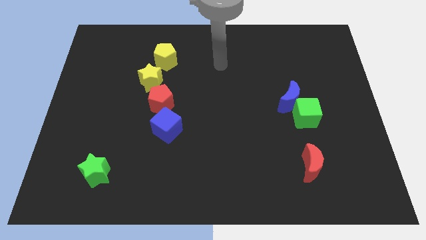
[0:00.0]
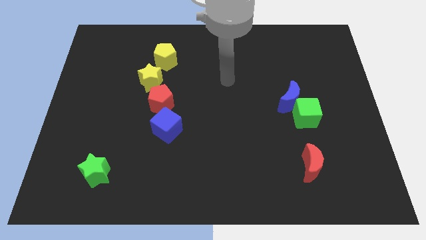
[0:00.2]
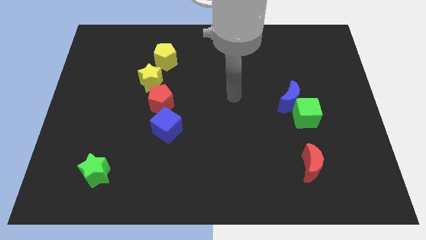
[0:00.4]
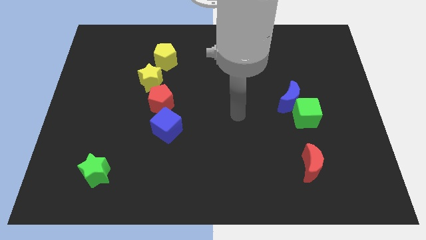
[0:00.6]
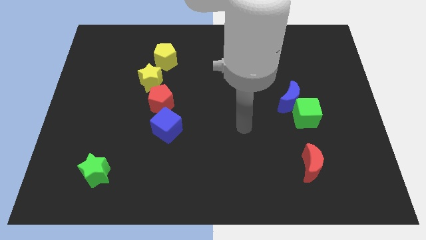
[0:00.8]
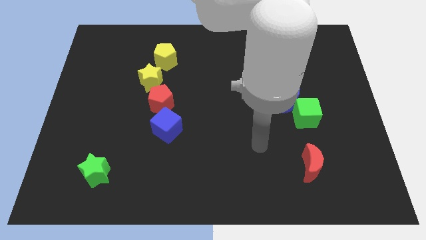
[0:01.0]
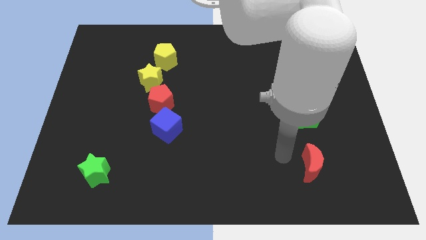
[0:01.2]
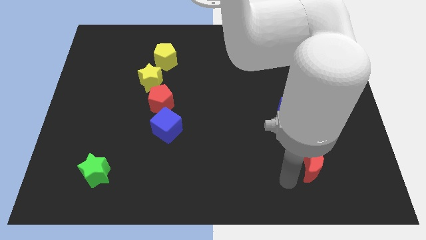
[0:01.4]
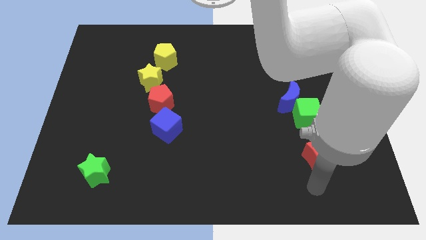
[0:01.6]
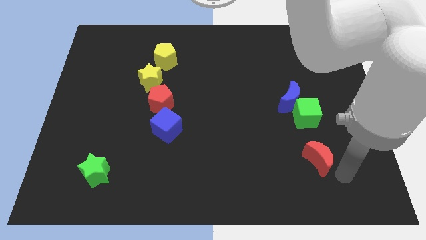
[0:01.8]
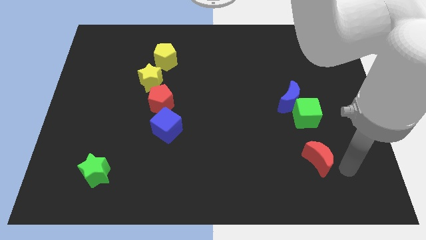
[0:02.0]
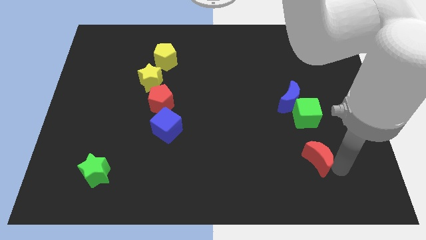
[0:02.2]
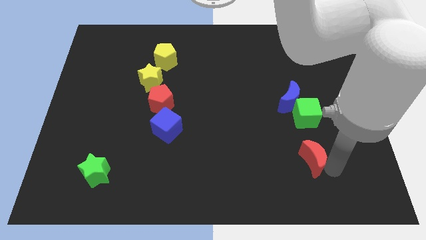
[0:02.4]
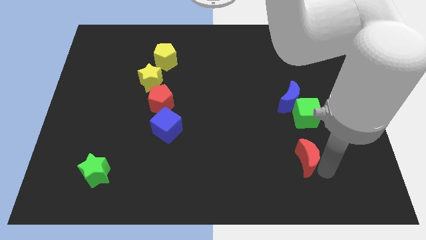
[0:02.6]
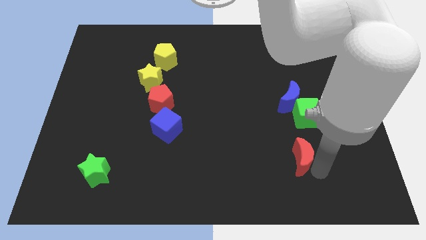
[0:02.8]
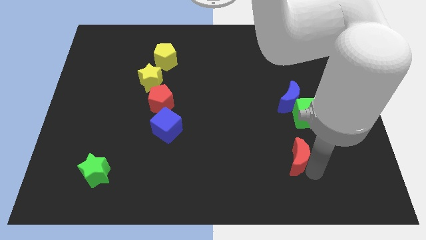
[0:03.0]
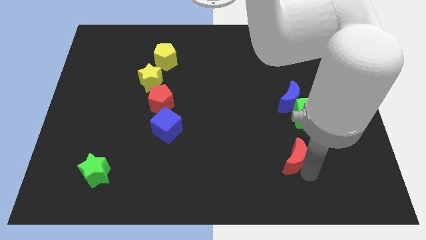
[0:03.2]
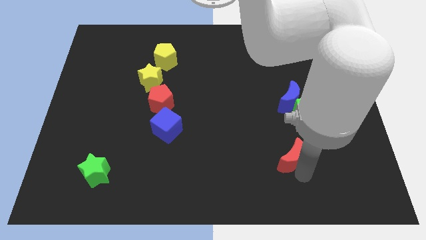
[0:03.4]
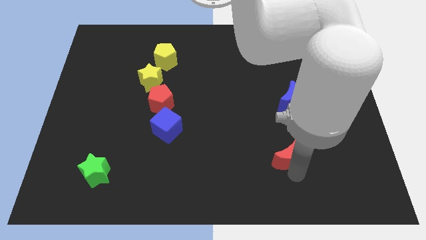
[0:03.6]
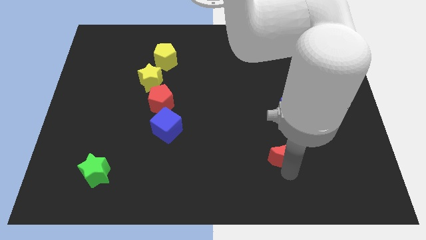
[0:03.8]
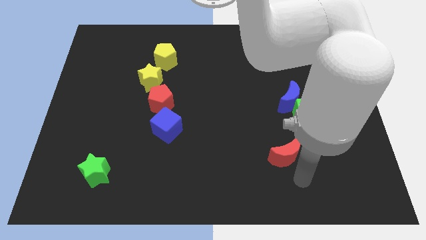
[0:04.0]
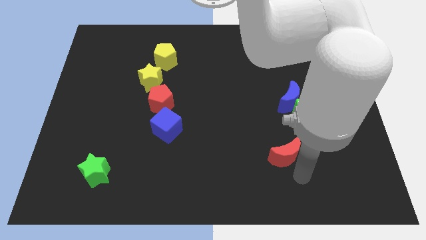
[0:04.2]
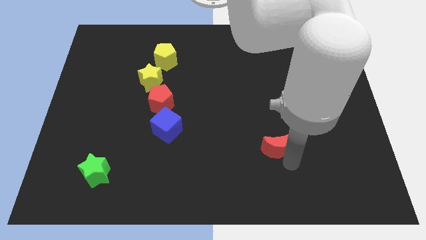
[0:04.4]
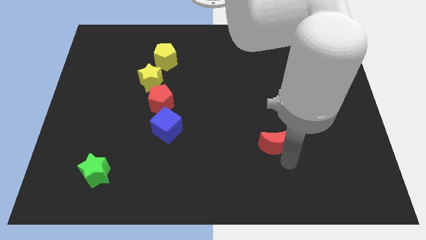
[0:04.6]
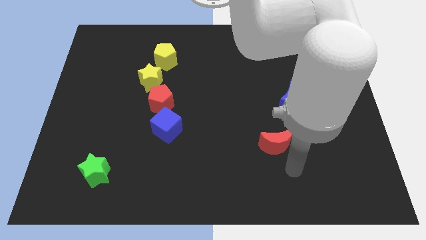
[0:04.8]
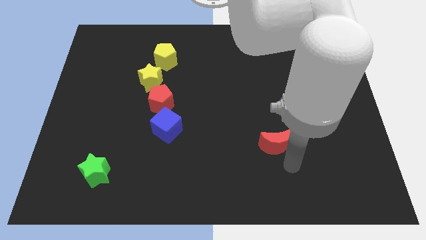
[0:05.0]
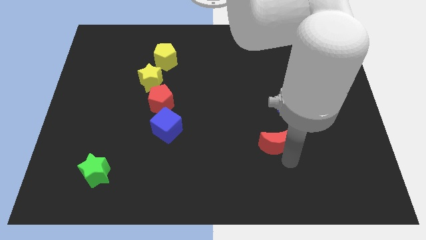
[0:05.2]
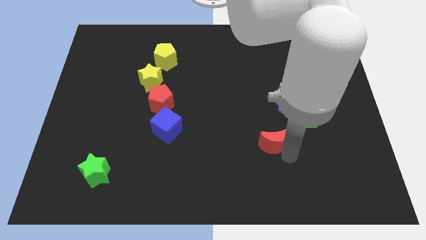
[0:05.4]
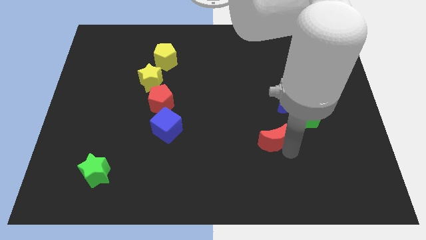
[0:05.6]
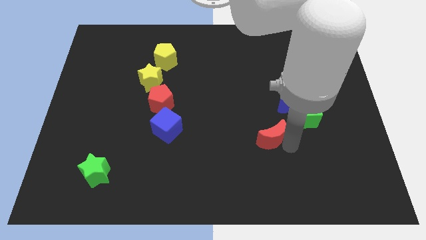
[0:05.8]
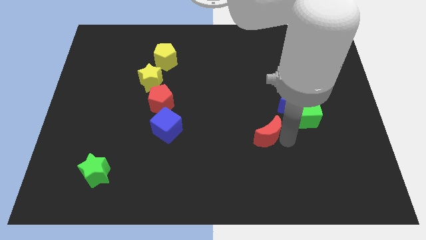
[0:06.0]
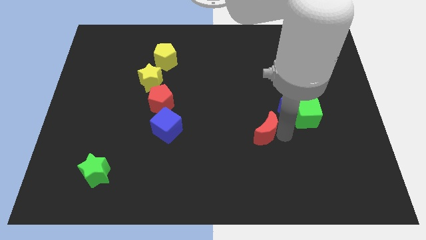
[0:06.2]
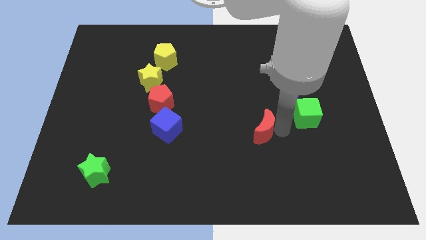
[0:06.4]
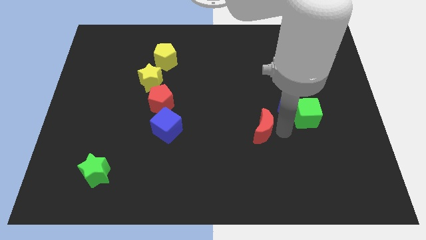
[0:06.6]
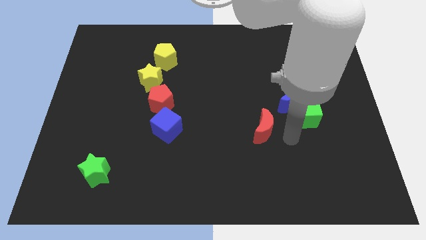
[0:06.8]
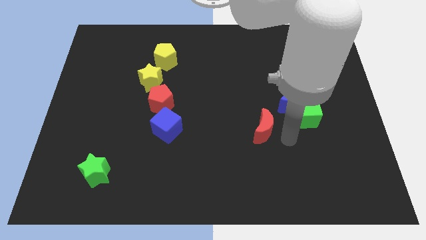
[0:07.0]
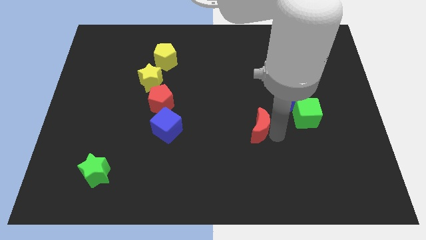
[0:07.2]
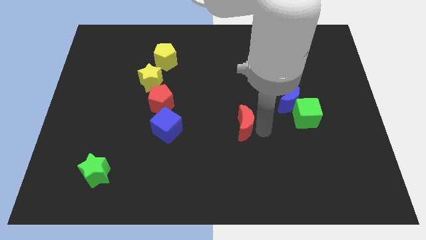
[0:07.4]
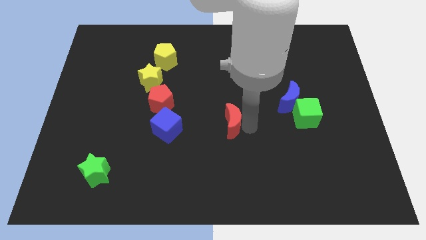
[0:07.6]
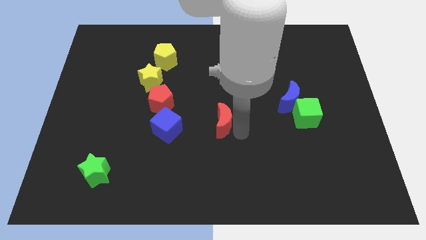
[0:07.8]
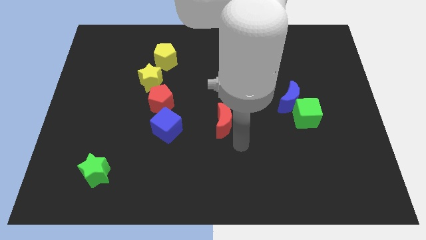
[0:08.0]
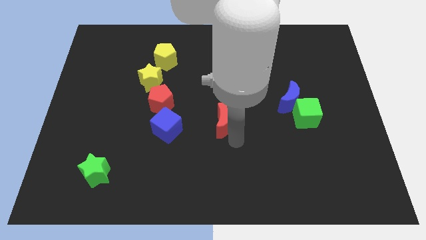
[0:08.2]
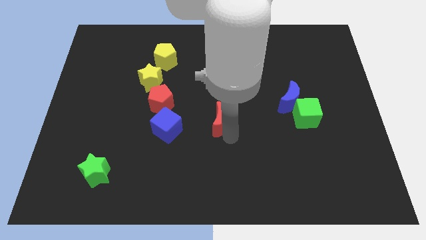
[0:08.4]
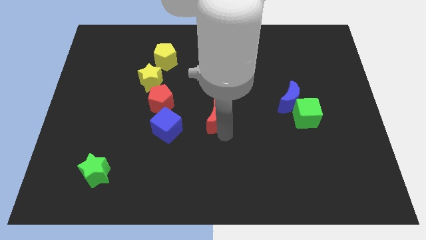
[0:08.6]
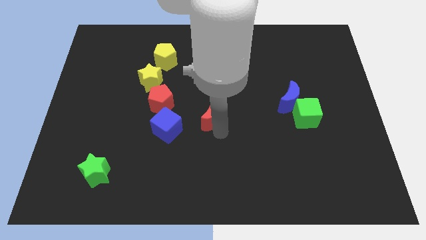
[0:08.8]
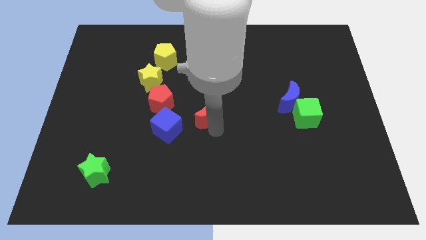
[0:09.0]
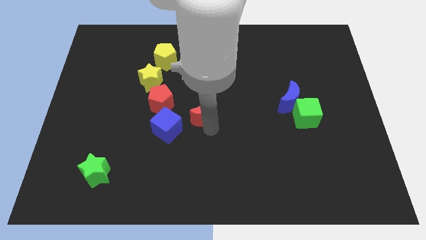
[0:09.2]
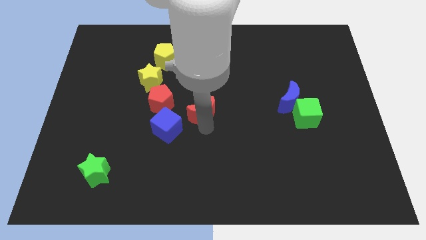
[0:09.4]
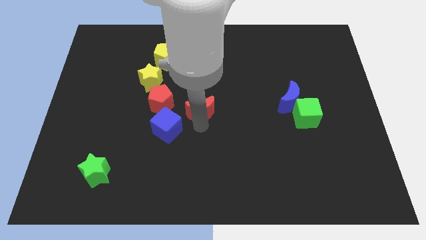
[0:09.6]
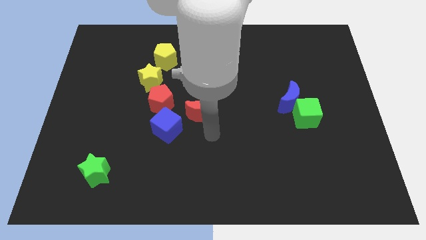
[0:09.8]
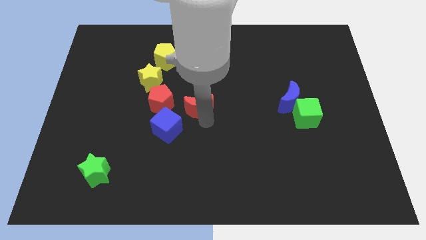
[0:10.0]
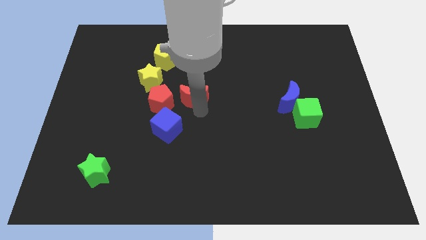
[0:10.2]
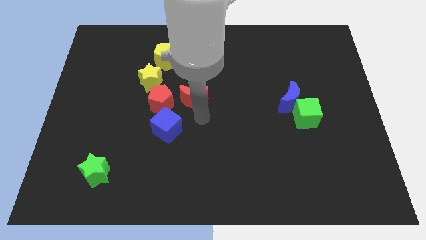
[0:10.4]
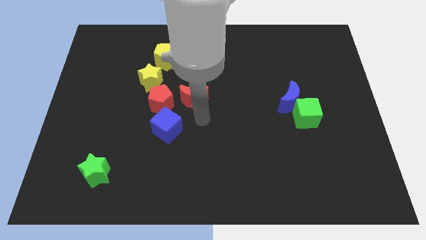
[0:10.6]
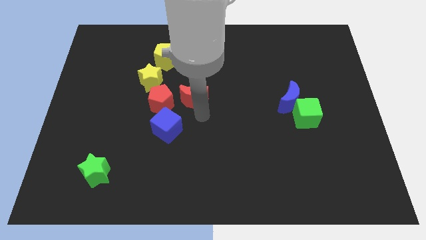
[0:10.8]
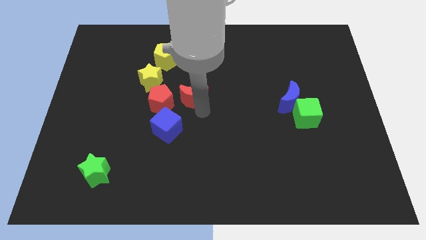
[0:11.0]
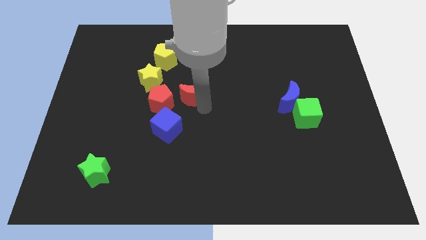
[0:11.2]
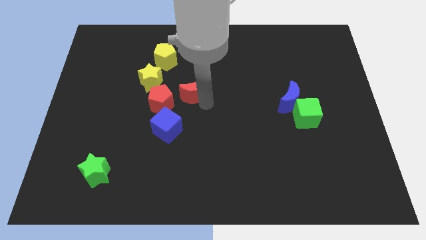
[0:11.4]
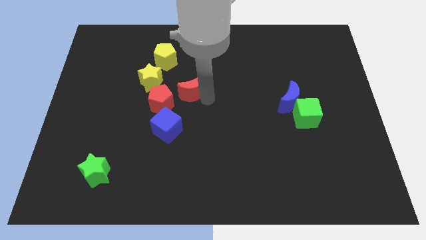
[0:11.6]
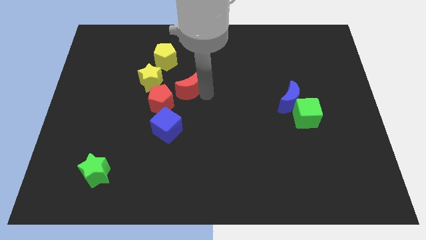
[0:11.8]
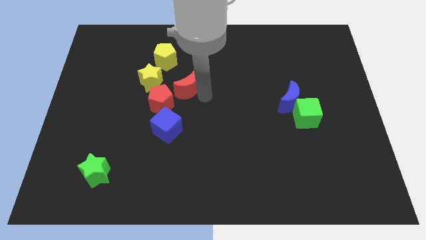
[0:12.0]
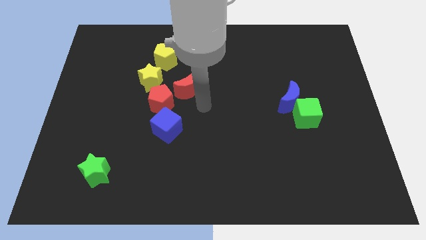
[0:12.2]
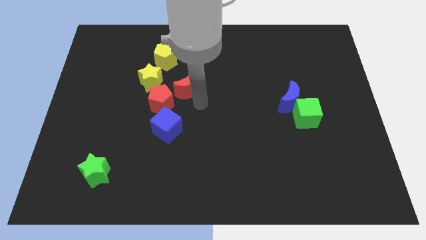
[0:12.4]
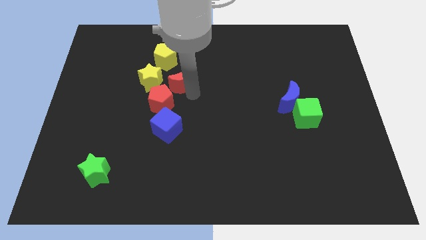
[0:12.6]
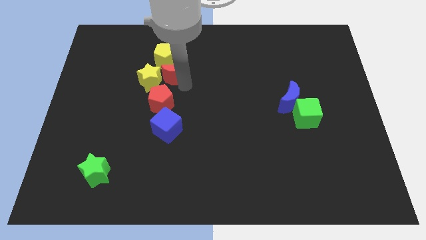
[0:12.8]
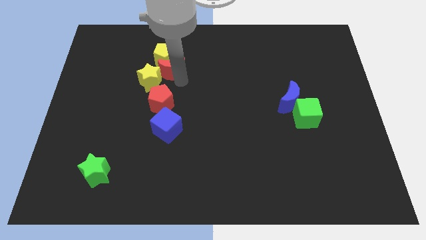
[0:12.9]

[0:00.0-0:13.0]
push the red moon close to the yellow pentagon

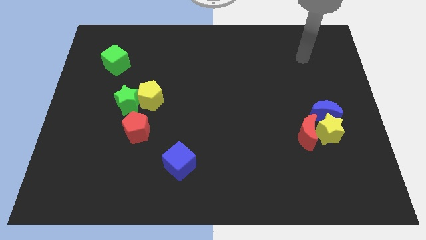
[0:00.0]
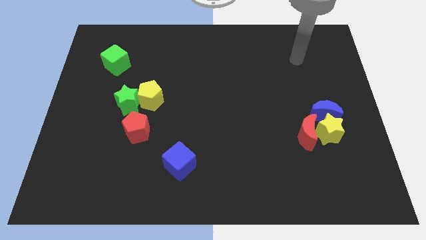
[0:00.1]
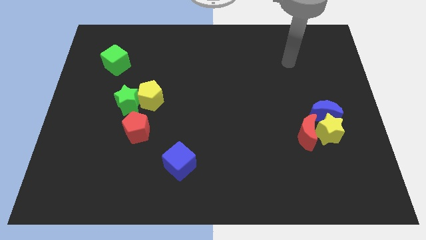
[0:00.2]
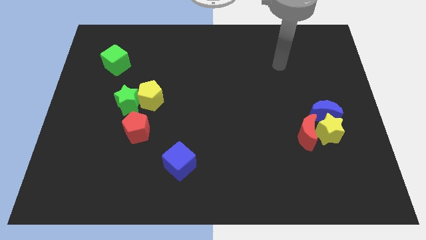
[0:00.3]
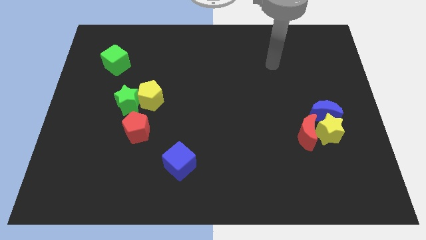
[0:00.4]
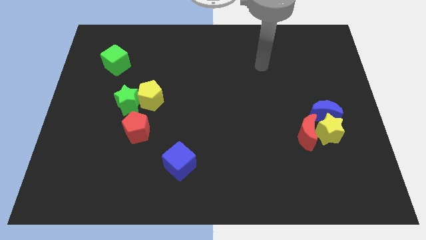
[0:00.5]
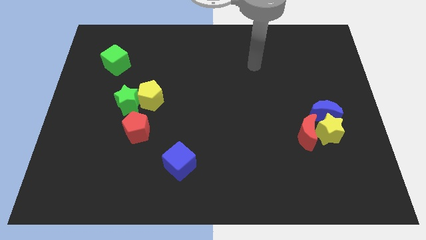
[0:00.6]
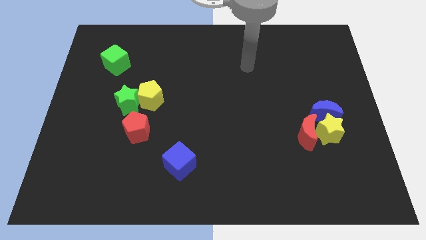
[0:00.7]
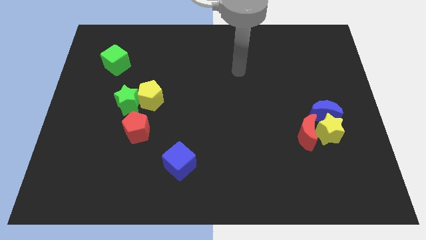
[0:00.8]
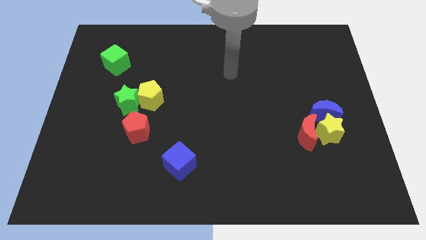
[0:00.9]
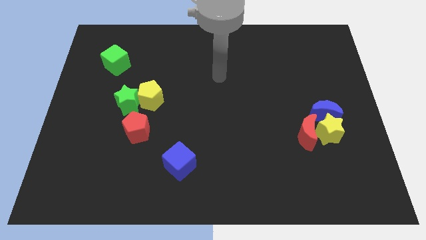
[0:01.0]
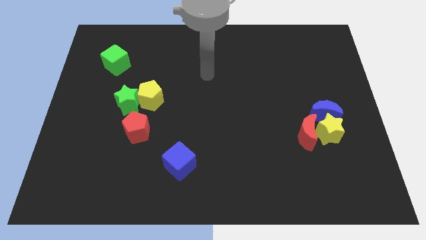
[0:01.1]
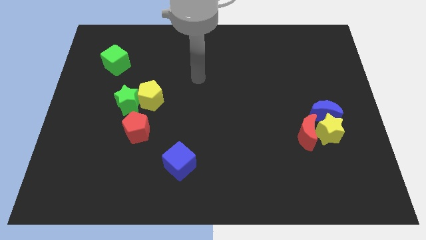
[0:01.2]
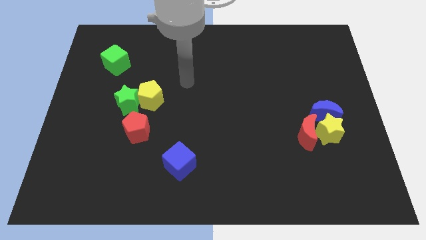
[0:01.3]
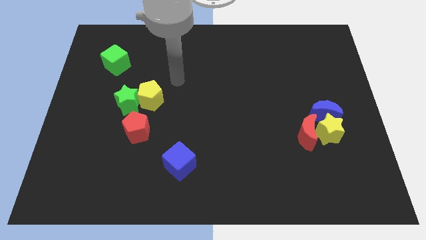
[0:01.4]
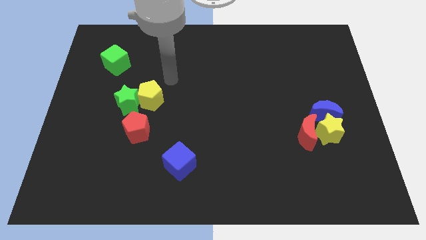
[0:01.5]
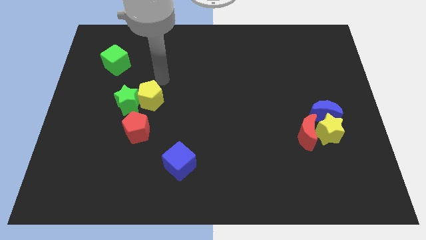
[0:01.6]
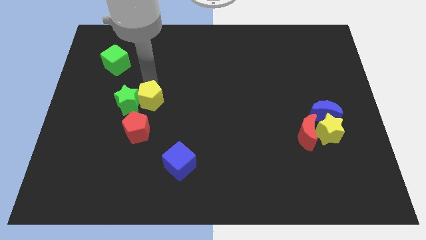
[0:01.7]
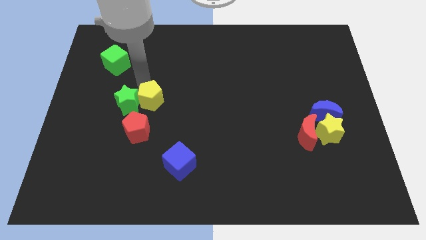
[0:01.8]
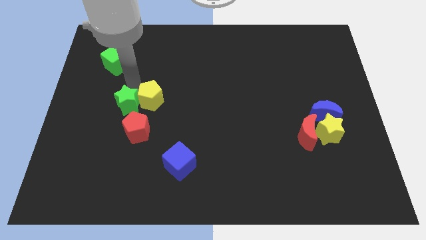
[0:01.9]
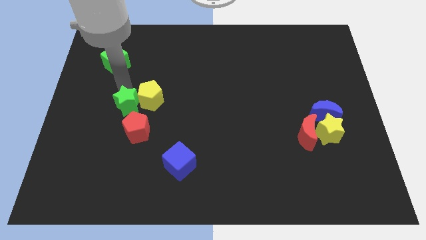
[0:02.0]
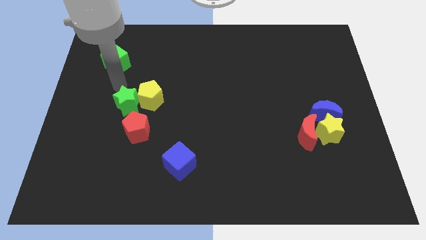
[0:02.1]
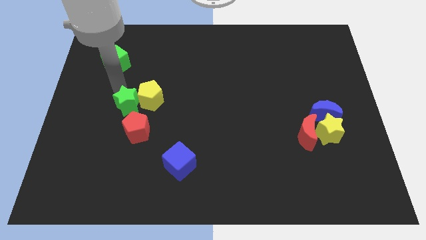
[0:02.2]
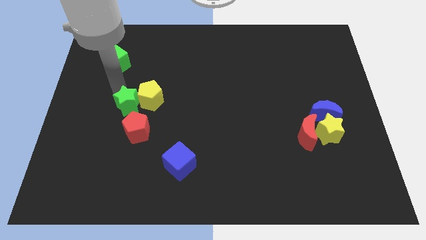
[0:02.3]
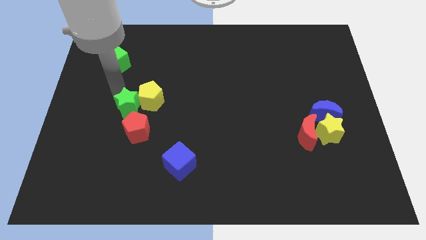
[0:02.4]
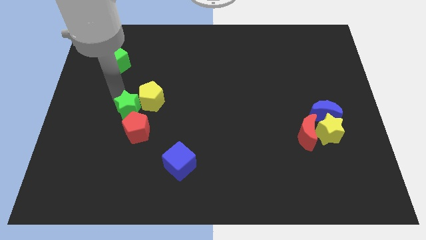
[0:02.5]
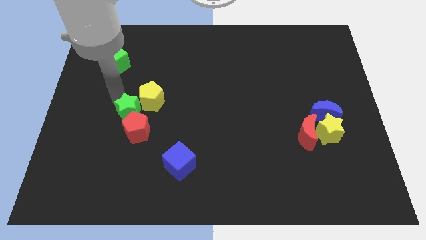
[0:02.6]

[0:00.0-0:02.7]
push the green star to the red pentagon
